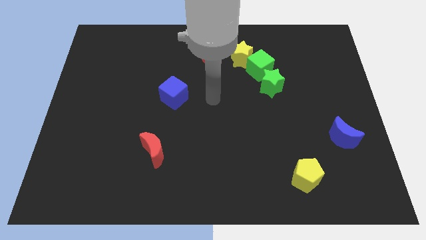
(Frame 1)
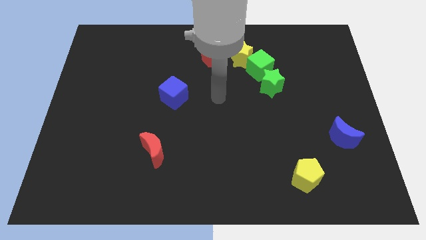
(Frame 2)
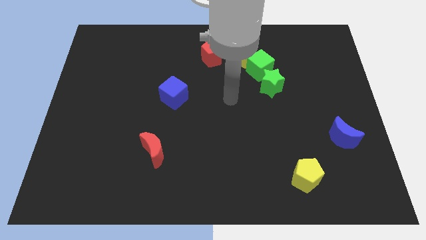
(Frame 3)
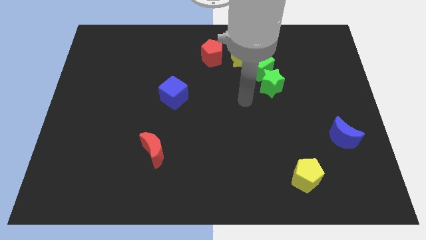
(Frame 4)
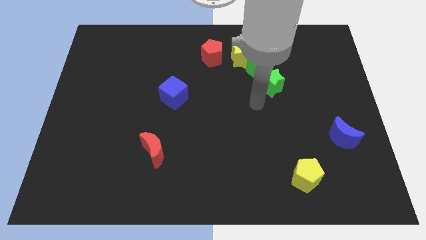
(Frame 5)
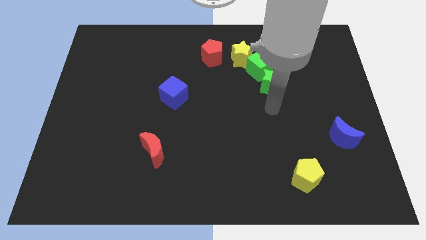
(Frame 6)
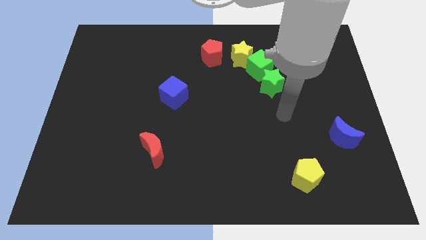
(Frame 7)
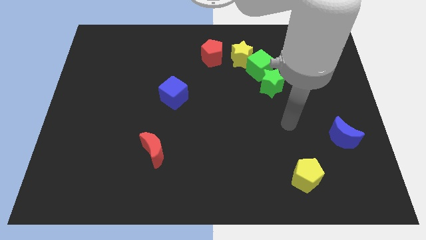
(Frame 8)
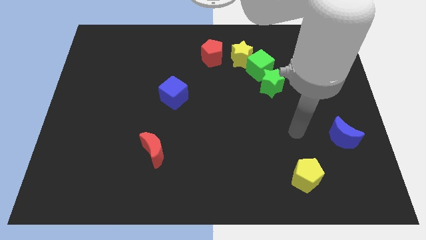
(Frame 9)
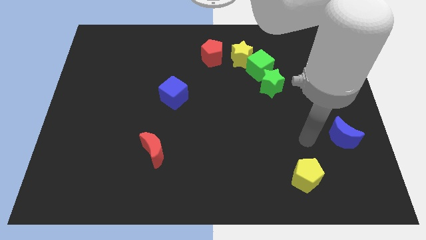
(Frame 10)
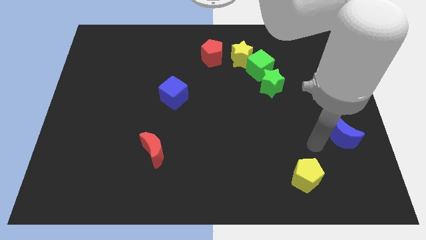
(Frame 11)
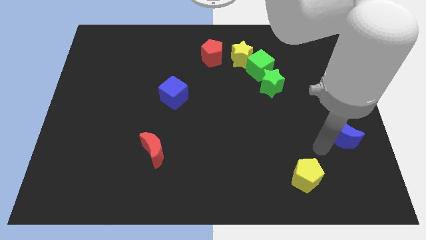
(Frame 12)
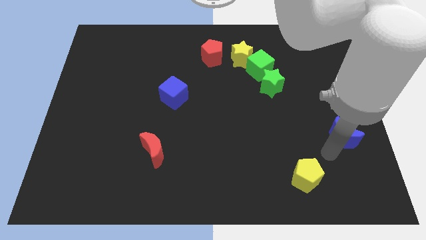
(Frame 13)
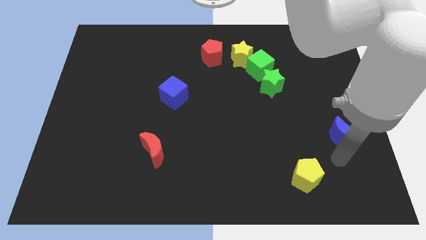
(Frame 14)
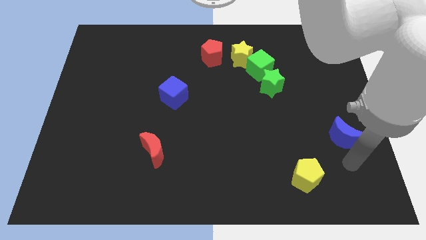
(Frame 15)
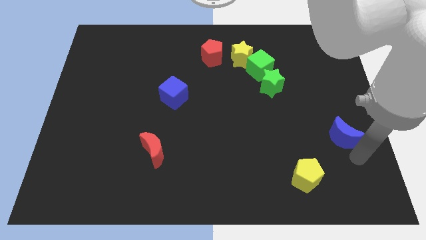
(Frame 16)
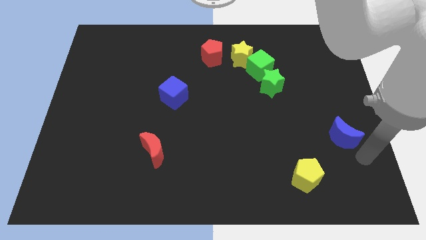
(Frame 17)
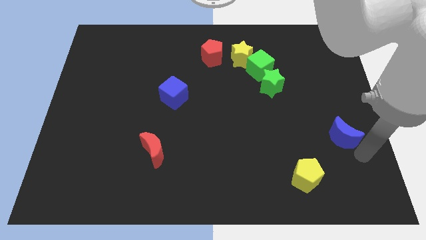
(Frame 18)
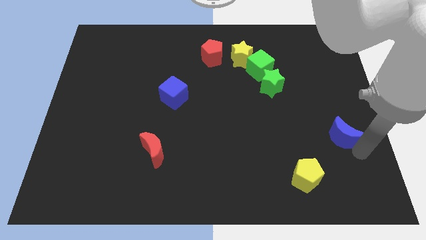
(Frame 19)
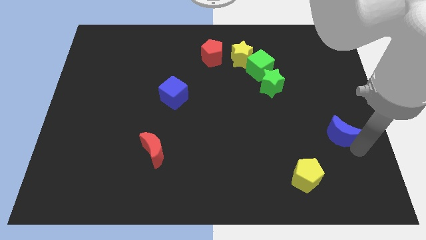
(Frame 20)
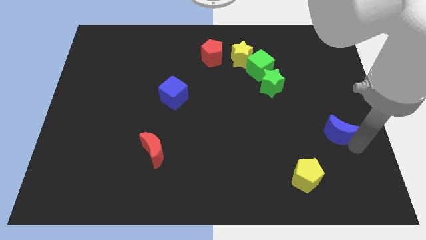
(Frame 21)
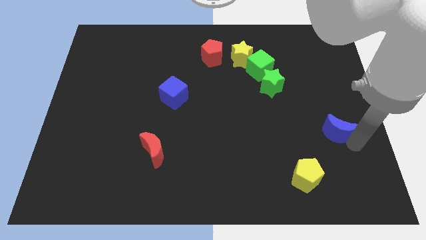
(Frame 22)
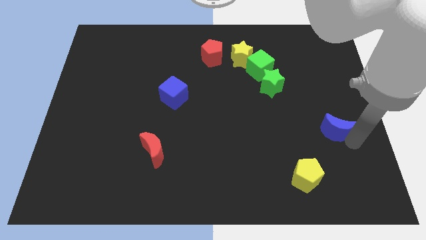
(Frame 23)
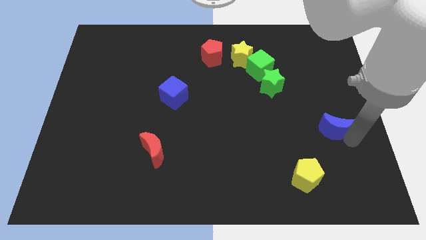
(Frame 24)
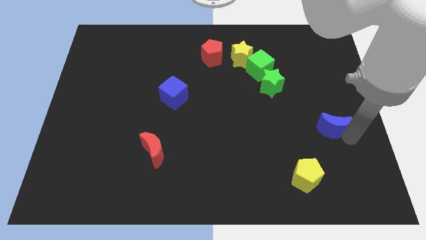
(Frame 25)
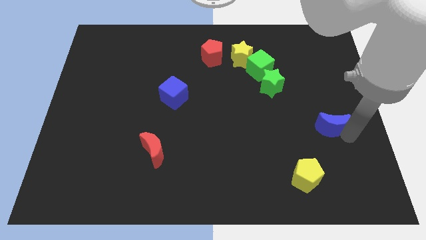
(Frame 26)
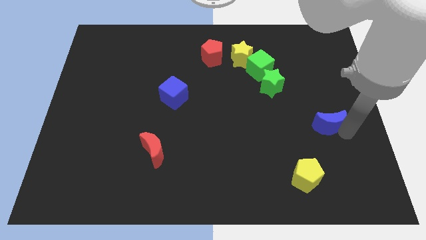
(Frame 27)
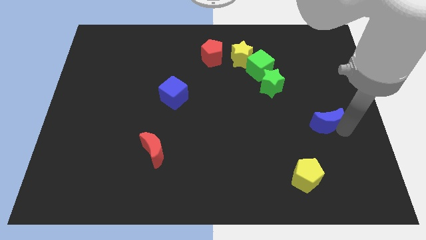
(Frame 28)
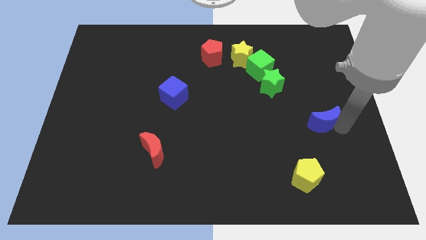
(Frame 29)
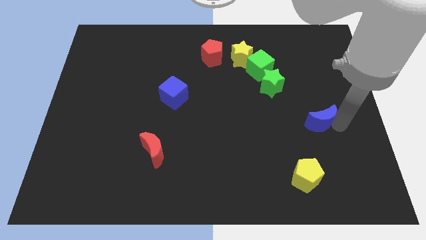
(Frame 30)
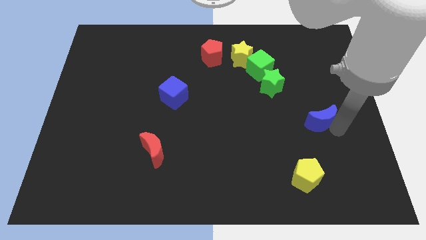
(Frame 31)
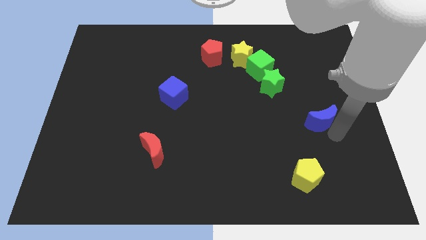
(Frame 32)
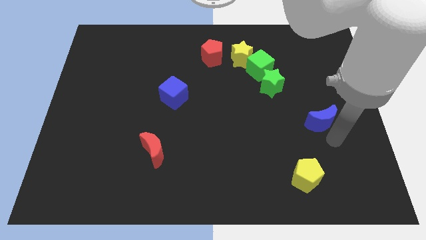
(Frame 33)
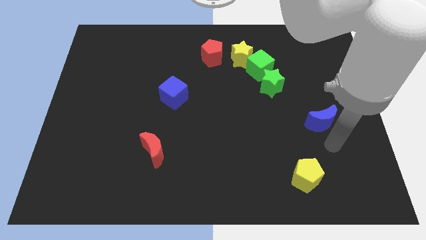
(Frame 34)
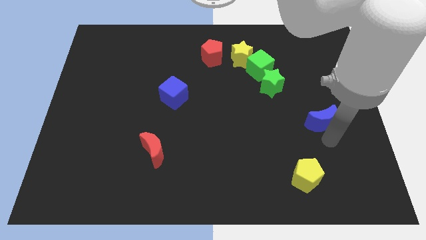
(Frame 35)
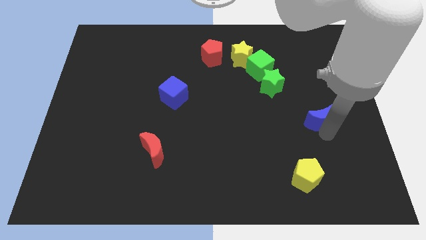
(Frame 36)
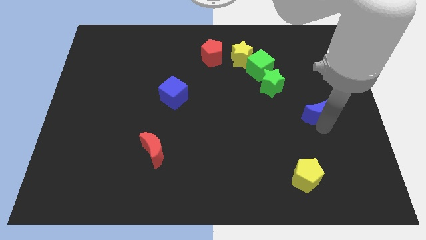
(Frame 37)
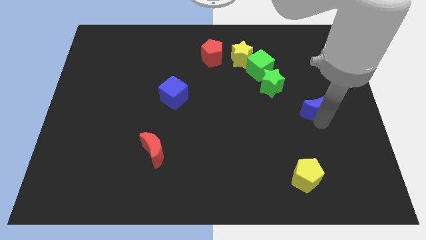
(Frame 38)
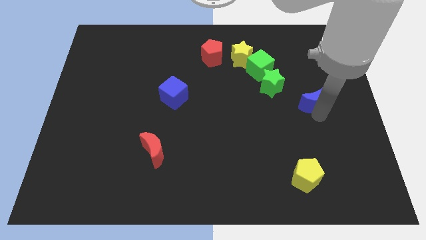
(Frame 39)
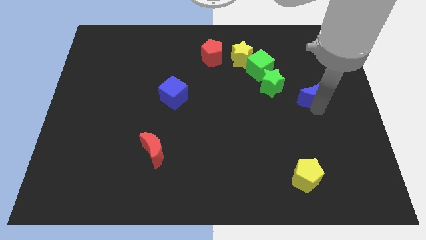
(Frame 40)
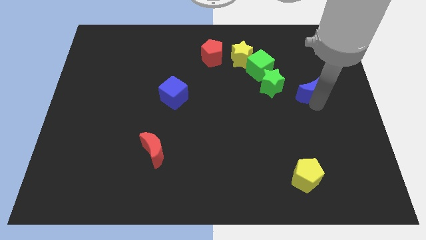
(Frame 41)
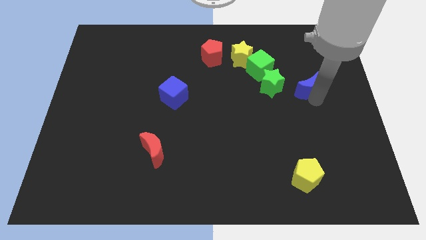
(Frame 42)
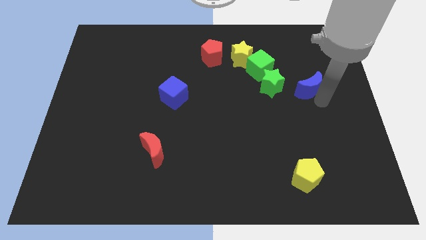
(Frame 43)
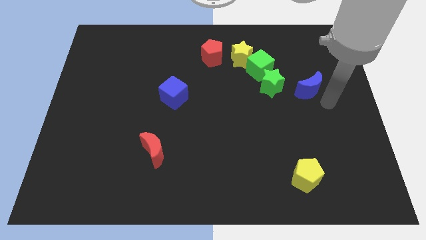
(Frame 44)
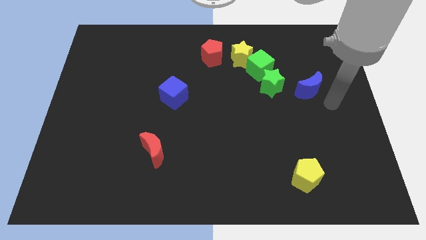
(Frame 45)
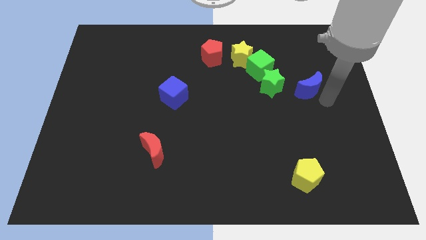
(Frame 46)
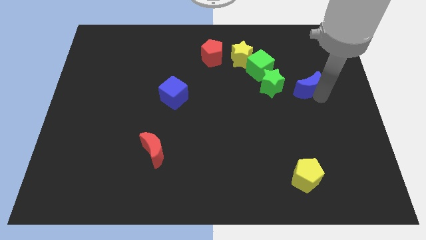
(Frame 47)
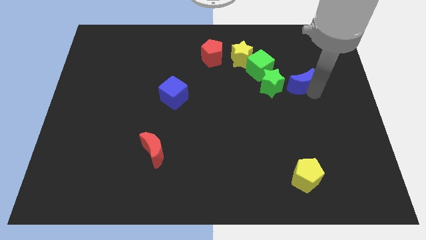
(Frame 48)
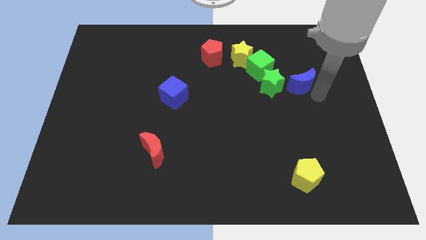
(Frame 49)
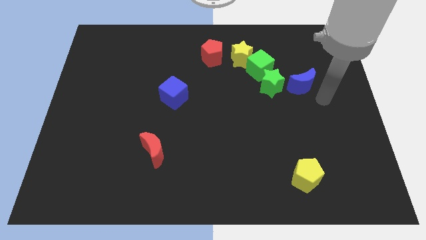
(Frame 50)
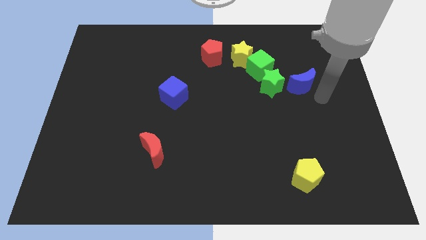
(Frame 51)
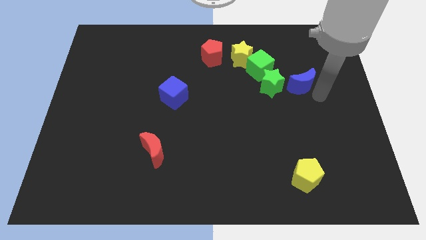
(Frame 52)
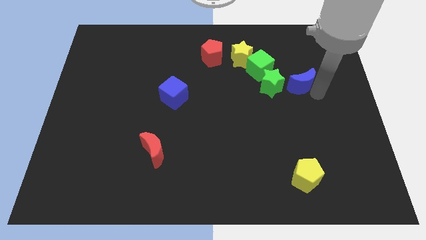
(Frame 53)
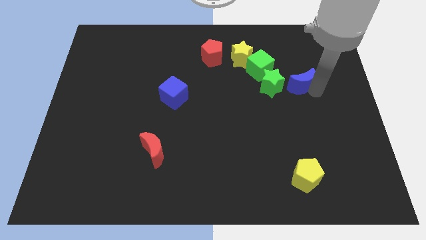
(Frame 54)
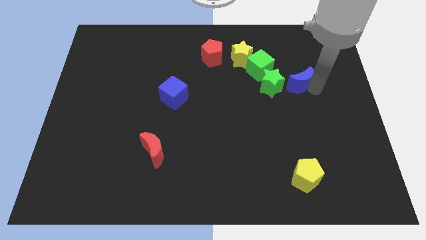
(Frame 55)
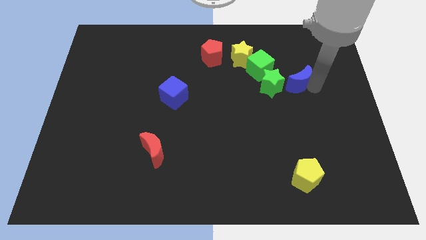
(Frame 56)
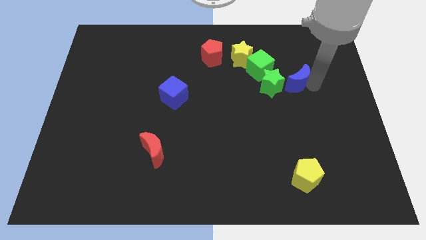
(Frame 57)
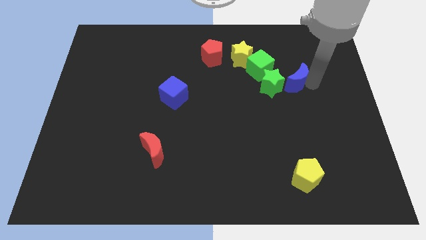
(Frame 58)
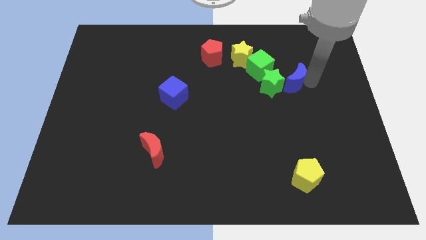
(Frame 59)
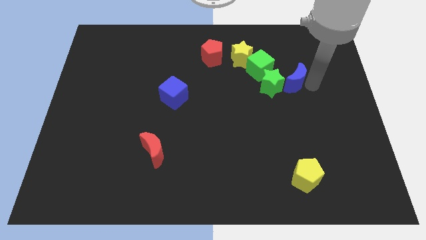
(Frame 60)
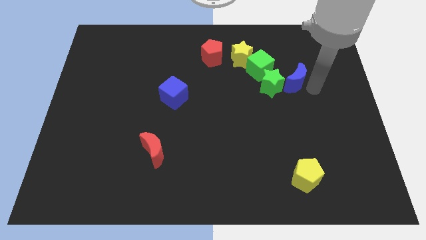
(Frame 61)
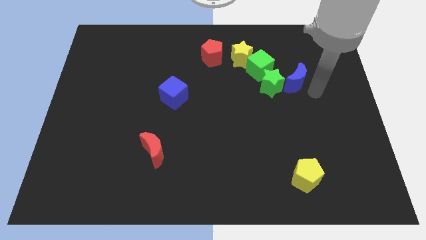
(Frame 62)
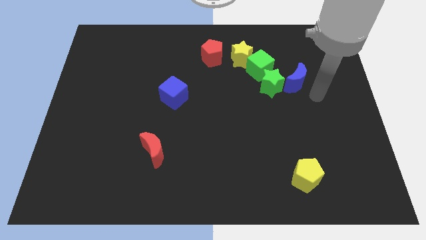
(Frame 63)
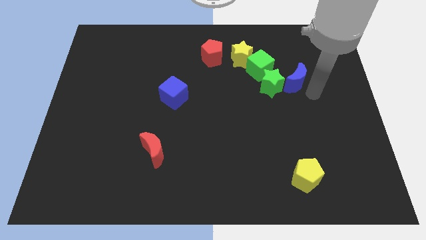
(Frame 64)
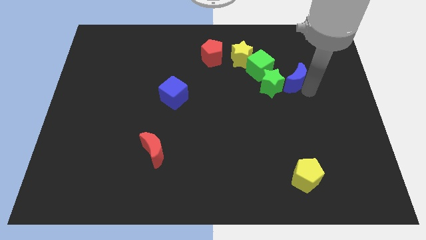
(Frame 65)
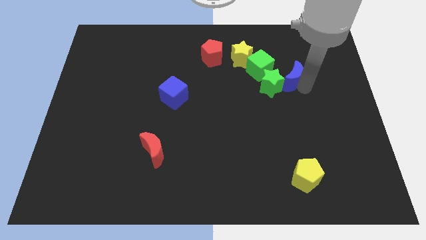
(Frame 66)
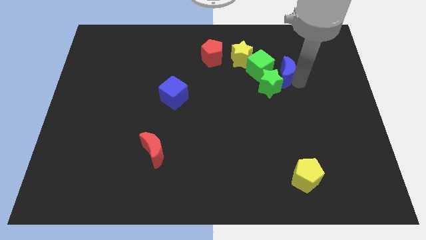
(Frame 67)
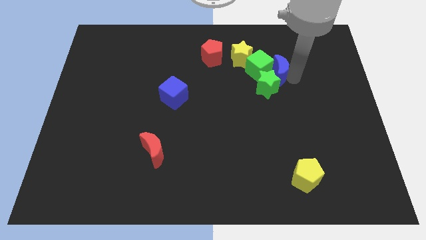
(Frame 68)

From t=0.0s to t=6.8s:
push the blue moon to the green cube

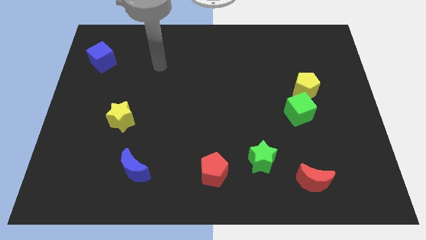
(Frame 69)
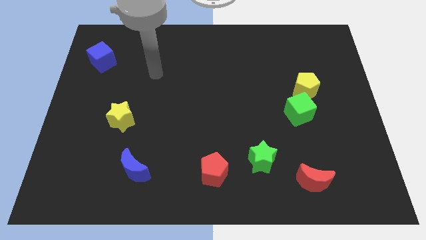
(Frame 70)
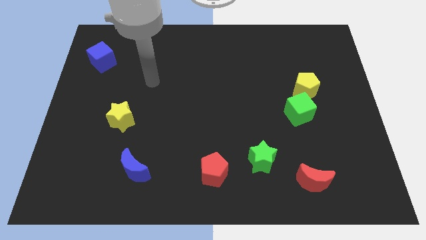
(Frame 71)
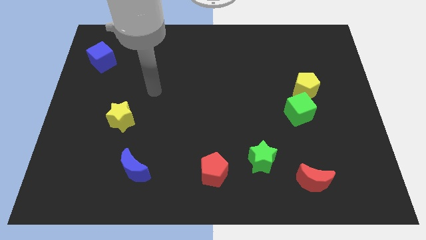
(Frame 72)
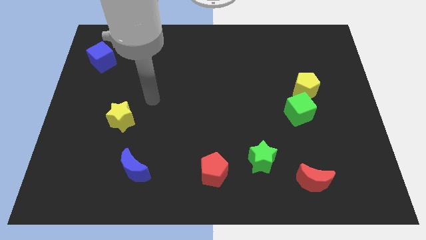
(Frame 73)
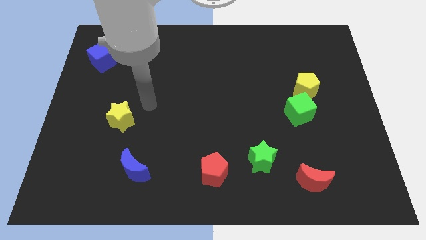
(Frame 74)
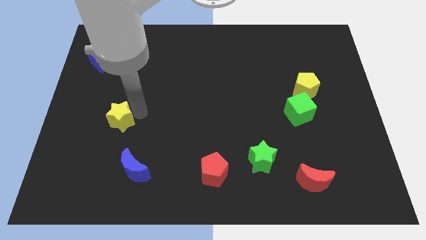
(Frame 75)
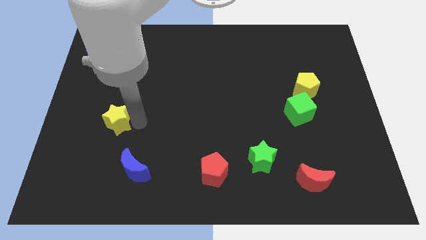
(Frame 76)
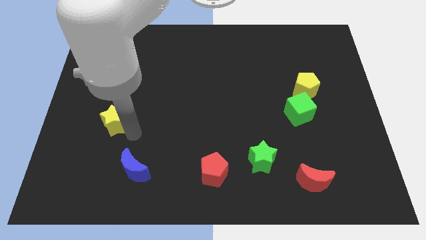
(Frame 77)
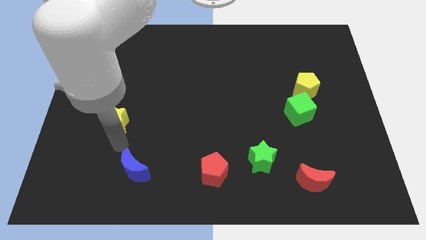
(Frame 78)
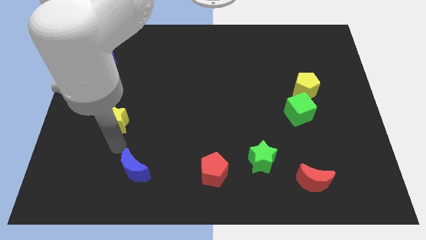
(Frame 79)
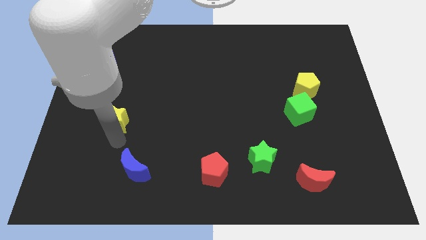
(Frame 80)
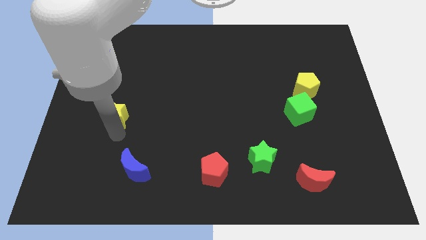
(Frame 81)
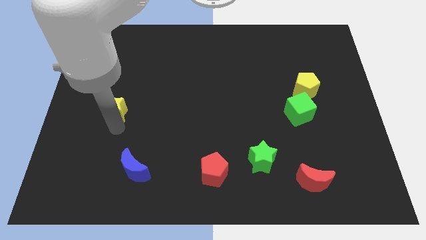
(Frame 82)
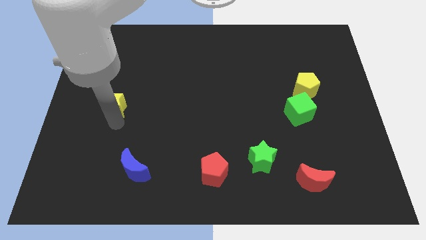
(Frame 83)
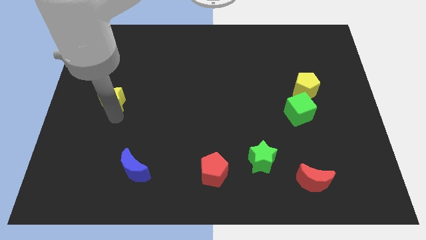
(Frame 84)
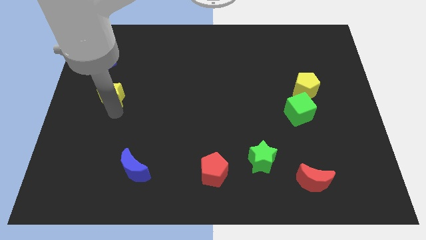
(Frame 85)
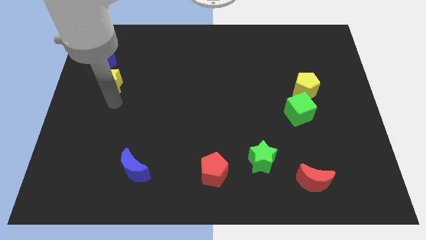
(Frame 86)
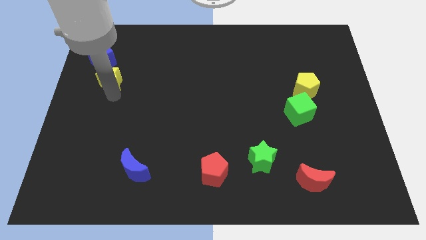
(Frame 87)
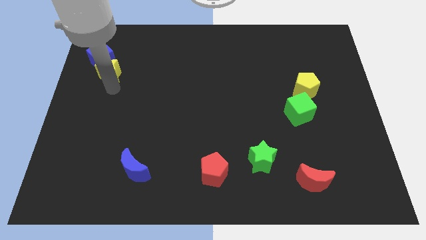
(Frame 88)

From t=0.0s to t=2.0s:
slide the yellow star to the blue cube
